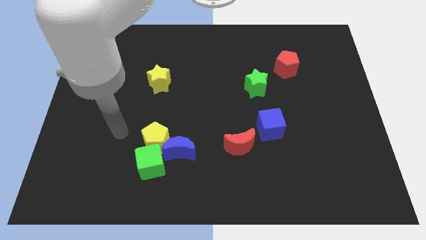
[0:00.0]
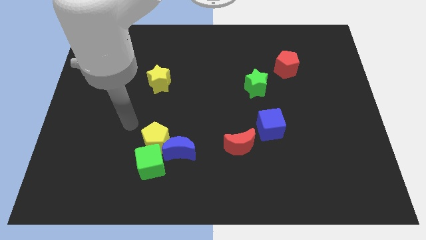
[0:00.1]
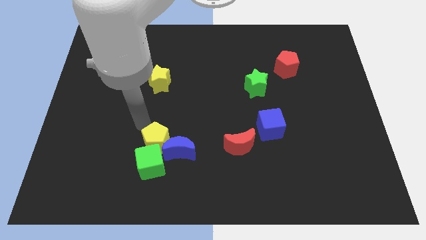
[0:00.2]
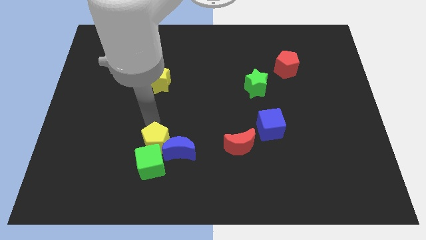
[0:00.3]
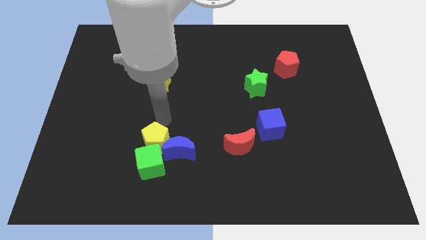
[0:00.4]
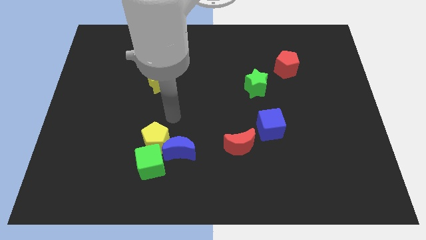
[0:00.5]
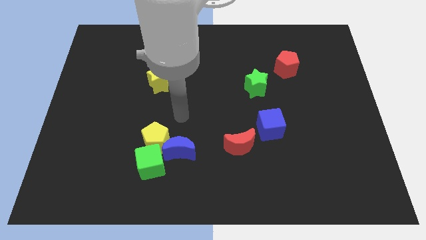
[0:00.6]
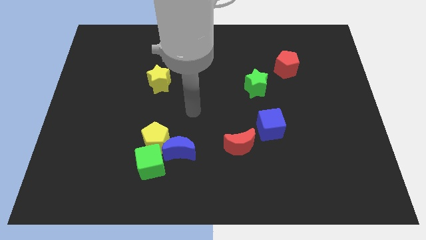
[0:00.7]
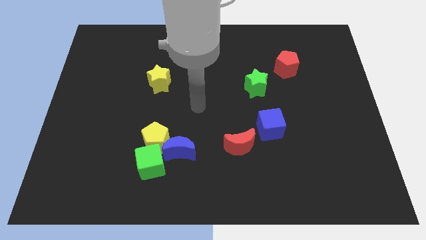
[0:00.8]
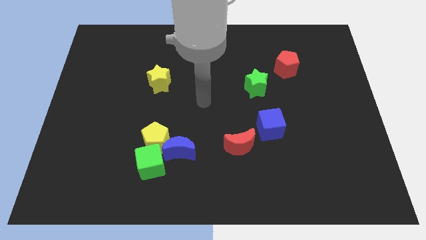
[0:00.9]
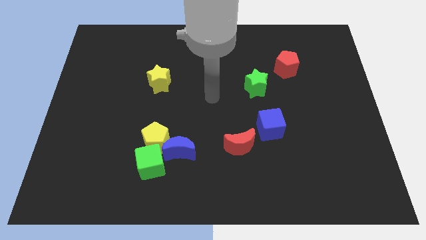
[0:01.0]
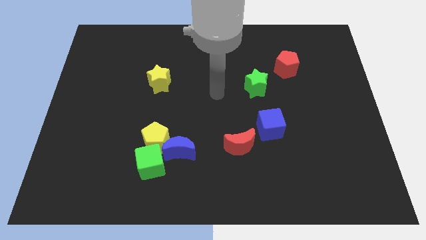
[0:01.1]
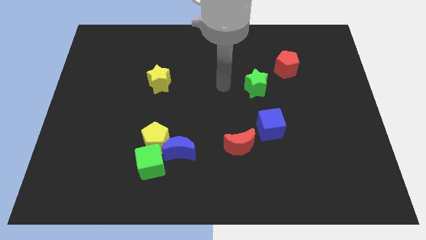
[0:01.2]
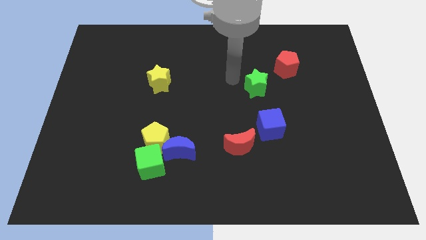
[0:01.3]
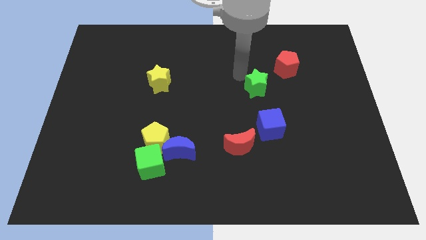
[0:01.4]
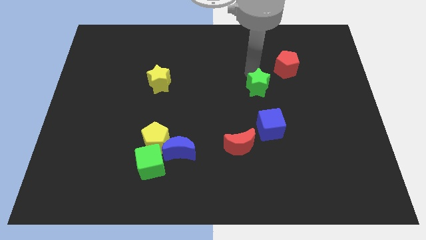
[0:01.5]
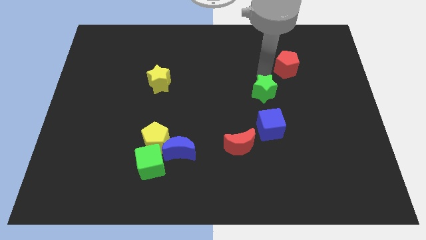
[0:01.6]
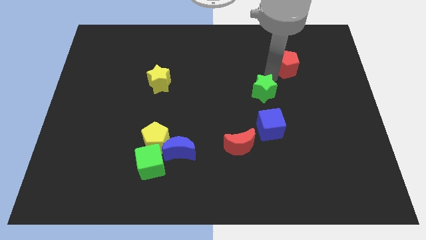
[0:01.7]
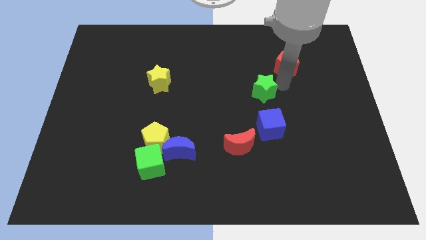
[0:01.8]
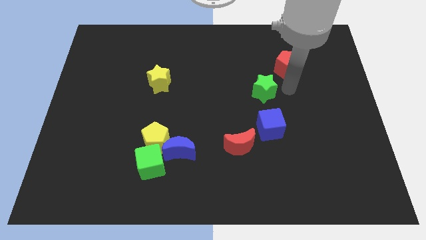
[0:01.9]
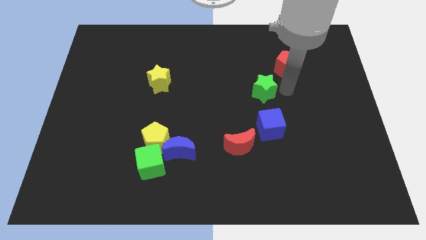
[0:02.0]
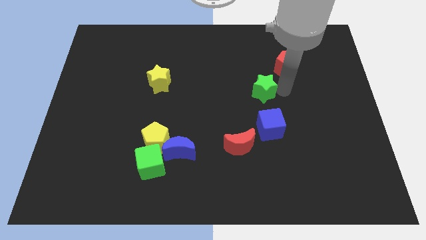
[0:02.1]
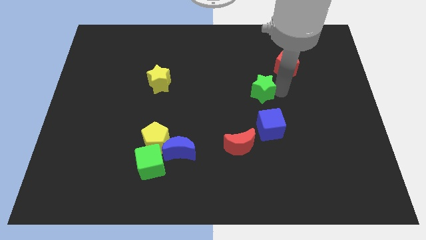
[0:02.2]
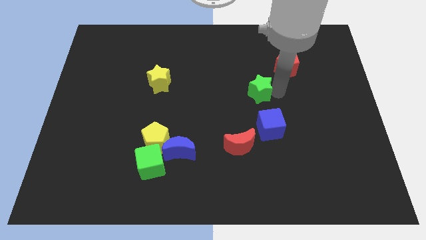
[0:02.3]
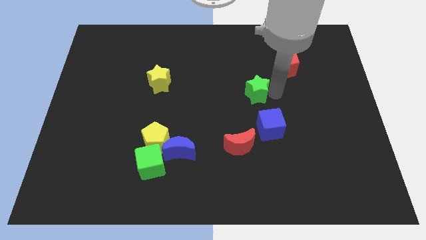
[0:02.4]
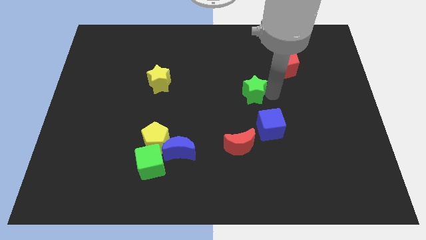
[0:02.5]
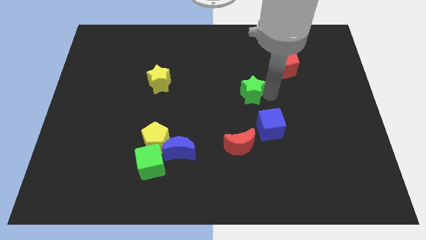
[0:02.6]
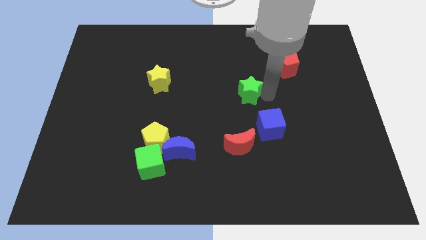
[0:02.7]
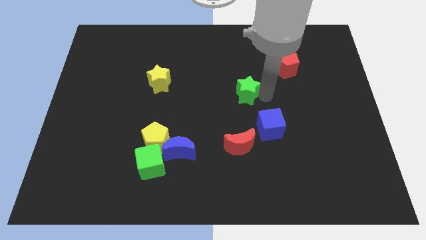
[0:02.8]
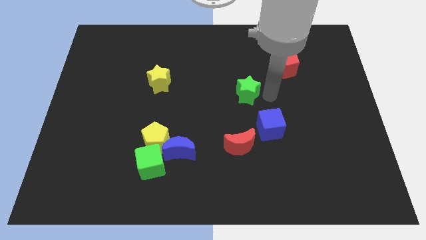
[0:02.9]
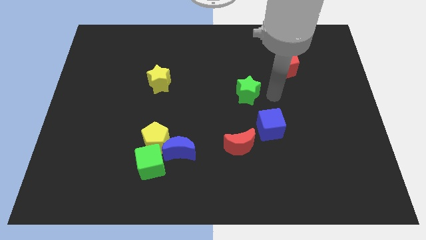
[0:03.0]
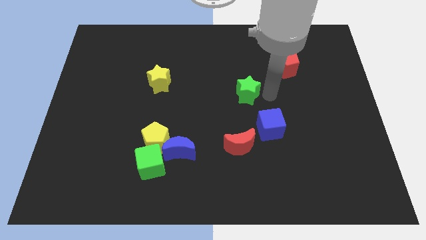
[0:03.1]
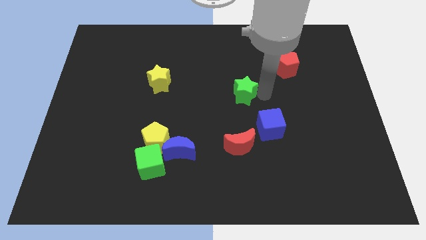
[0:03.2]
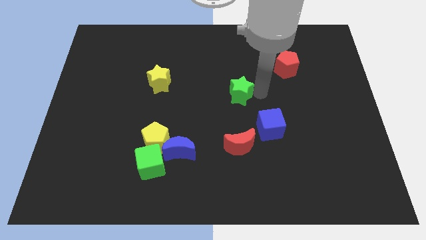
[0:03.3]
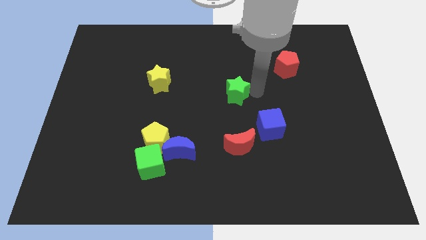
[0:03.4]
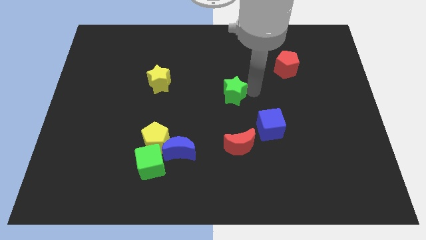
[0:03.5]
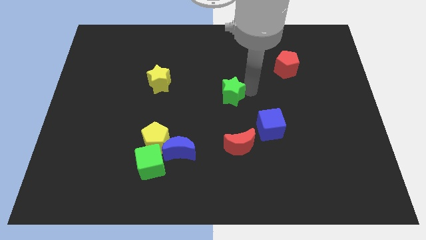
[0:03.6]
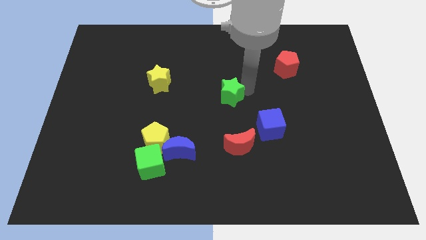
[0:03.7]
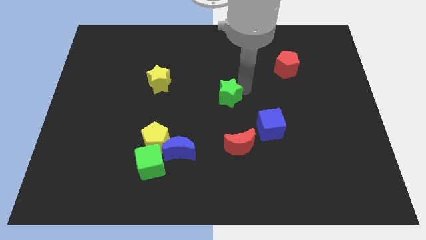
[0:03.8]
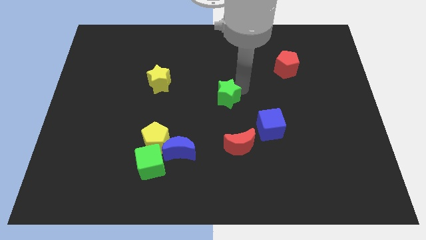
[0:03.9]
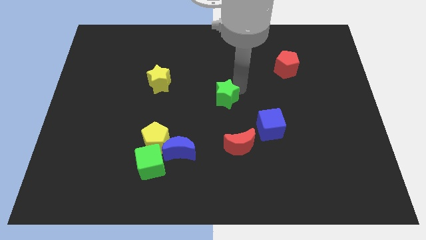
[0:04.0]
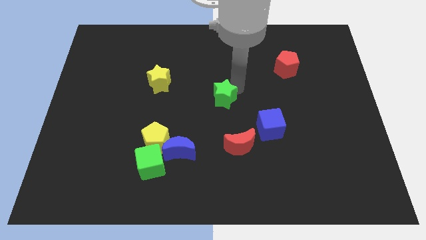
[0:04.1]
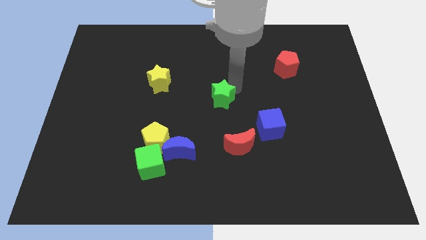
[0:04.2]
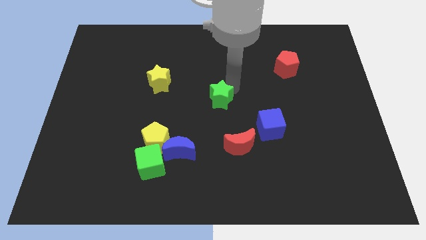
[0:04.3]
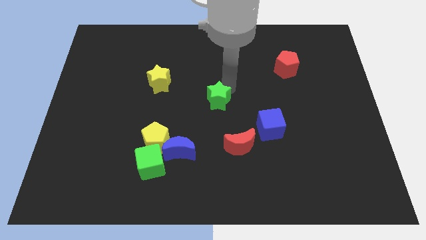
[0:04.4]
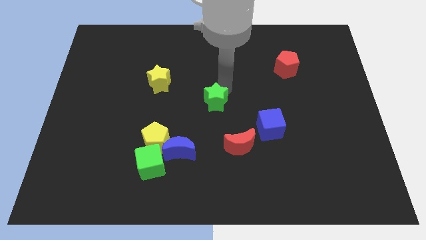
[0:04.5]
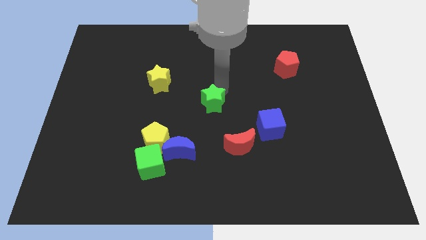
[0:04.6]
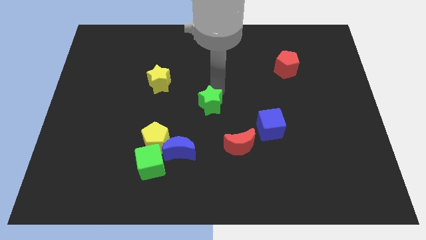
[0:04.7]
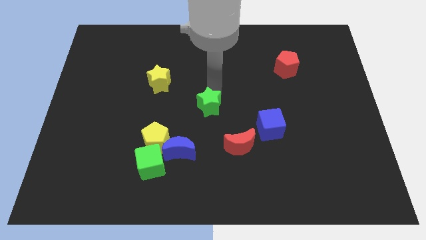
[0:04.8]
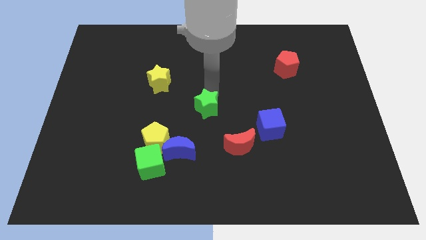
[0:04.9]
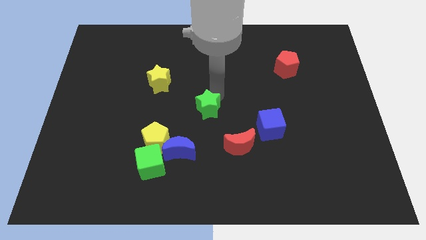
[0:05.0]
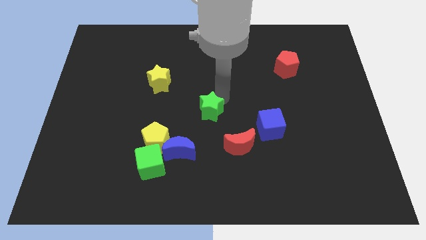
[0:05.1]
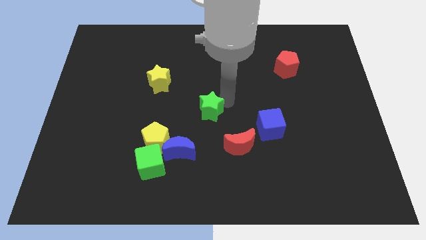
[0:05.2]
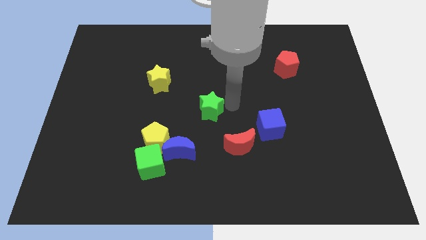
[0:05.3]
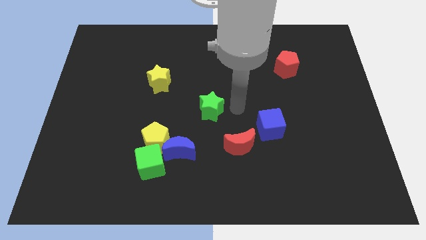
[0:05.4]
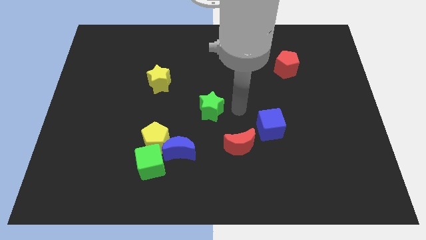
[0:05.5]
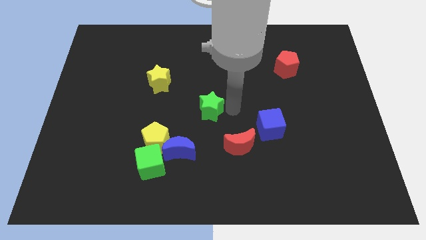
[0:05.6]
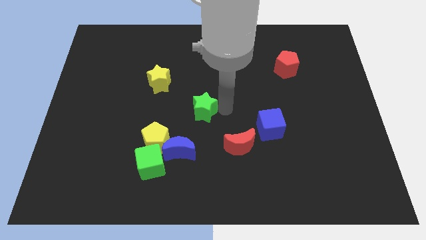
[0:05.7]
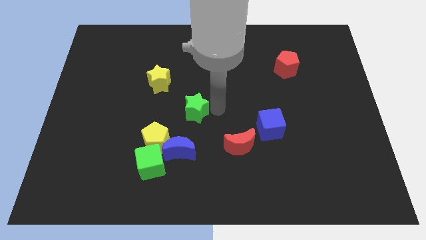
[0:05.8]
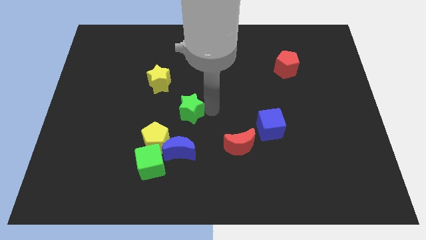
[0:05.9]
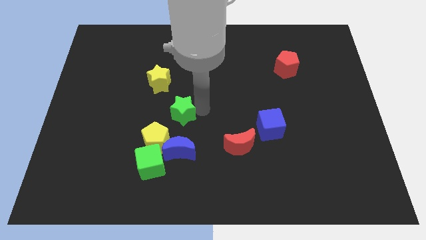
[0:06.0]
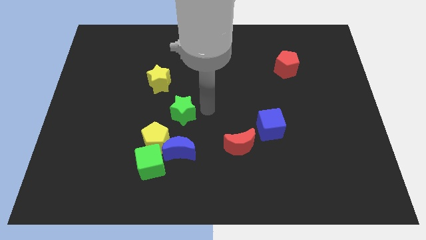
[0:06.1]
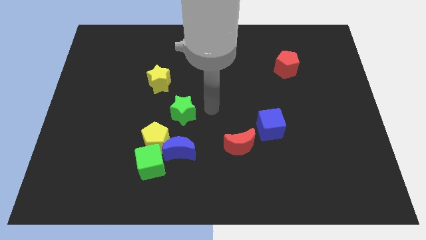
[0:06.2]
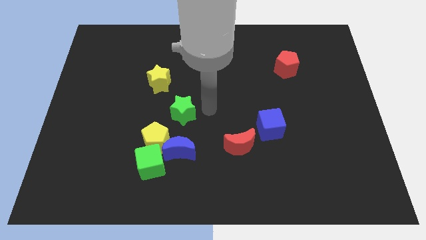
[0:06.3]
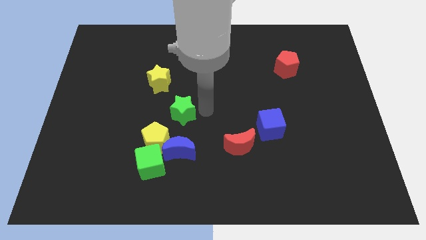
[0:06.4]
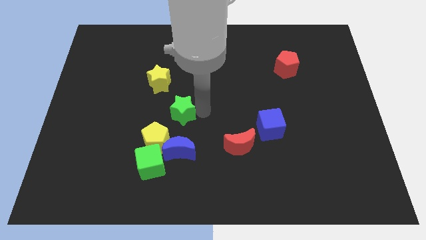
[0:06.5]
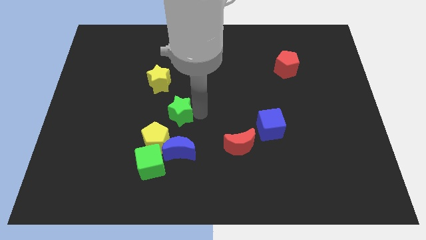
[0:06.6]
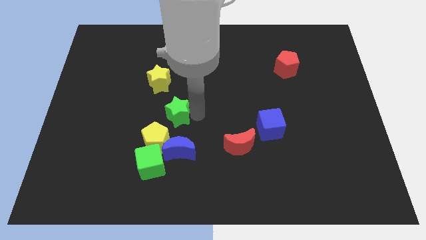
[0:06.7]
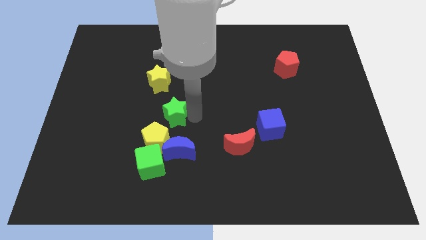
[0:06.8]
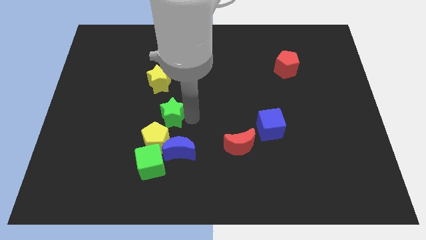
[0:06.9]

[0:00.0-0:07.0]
put the green star below the yellow star
